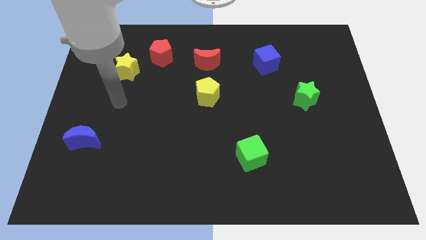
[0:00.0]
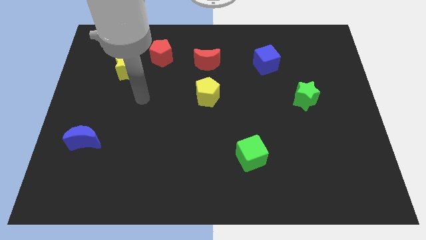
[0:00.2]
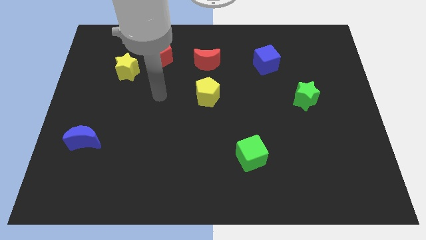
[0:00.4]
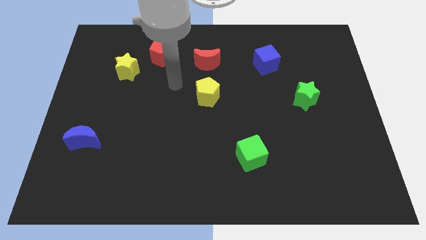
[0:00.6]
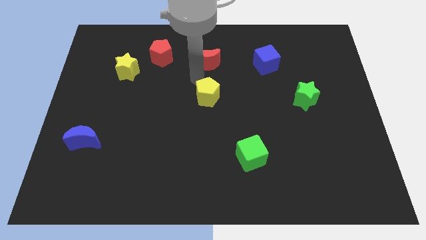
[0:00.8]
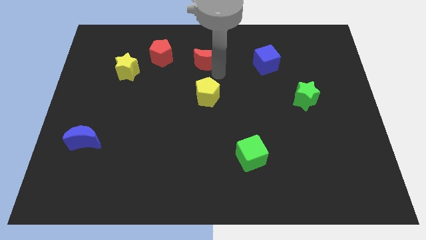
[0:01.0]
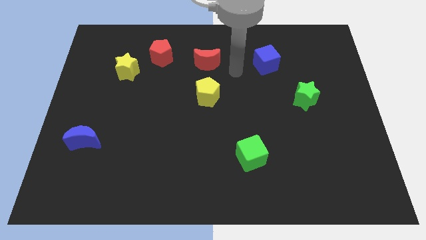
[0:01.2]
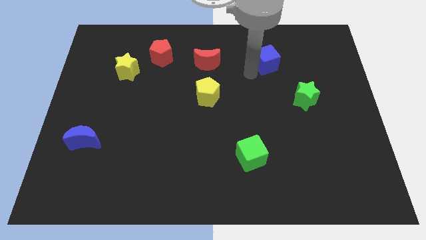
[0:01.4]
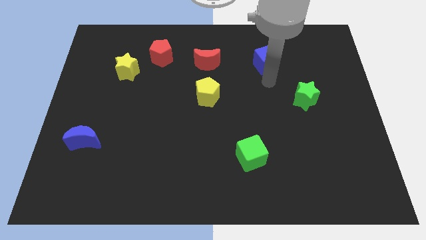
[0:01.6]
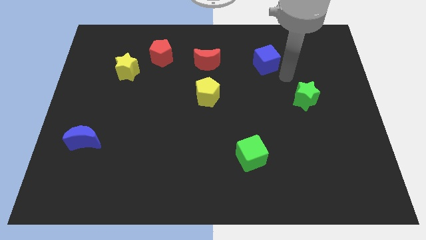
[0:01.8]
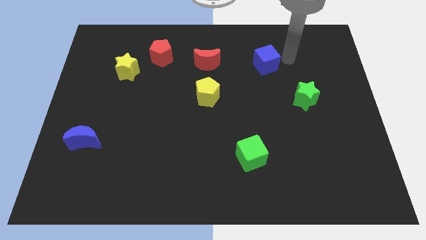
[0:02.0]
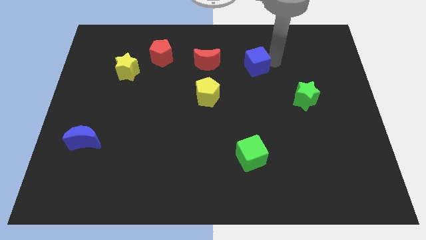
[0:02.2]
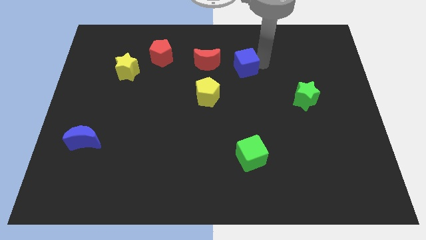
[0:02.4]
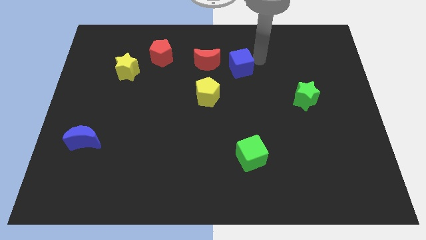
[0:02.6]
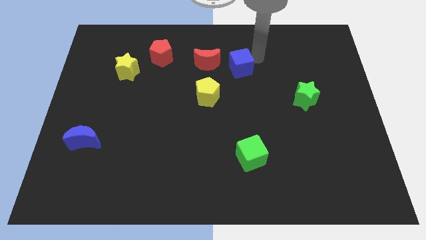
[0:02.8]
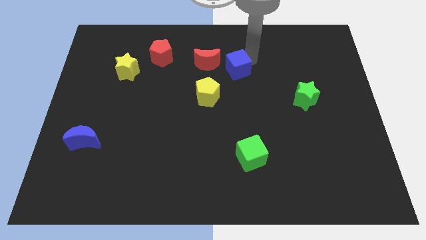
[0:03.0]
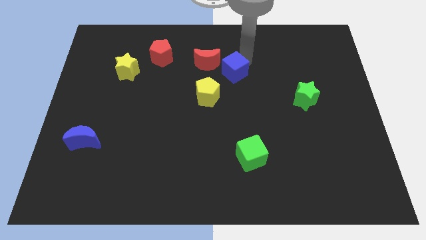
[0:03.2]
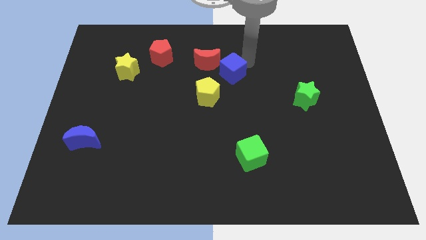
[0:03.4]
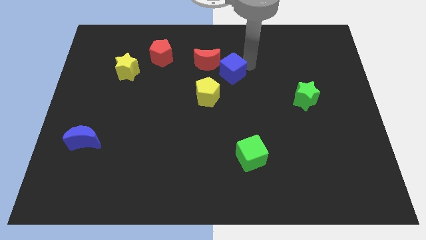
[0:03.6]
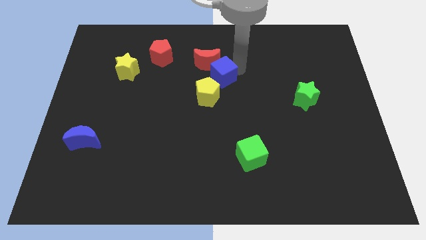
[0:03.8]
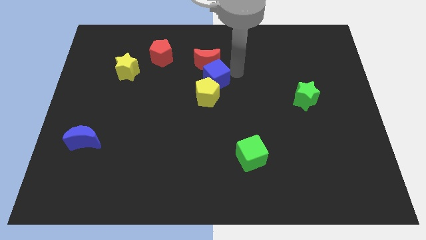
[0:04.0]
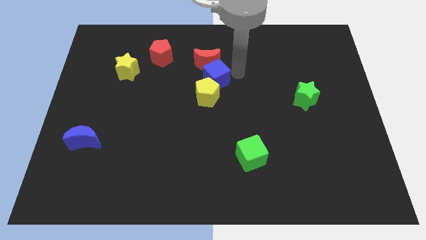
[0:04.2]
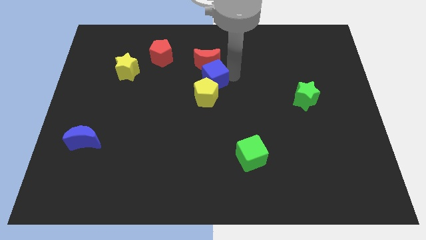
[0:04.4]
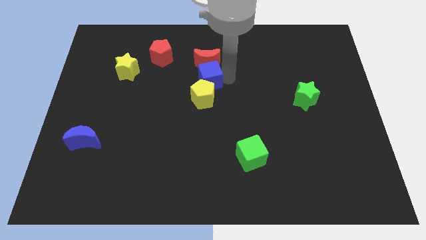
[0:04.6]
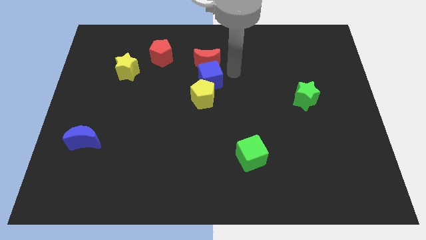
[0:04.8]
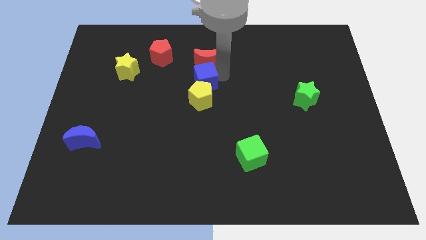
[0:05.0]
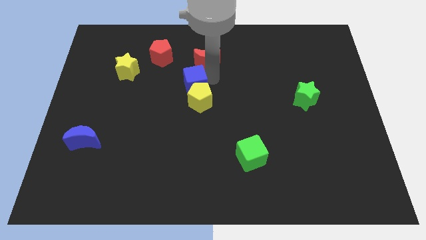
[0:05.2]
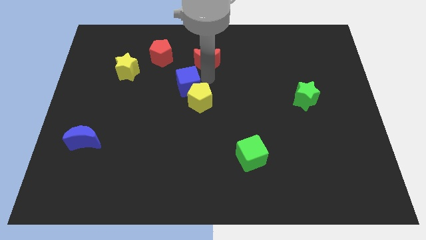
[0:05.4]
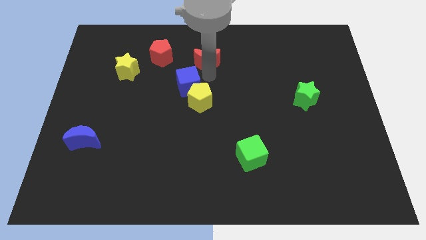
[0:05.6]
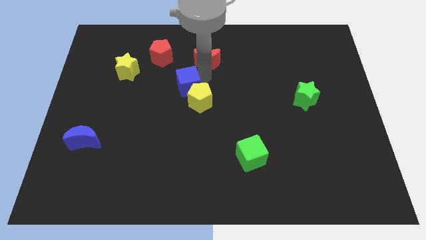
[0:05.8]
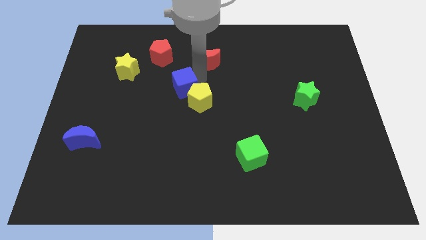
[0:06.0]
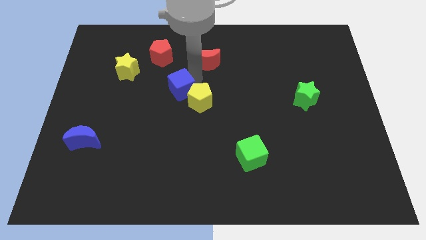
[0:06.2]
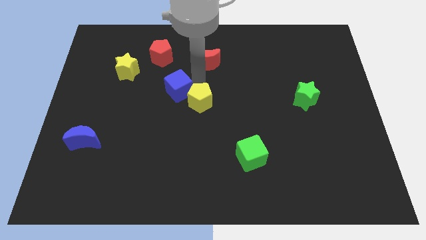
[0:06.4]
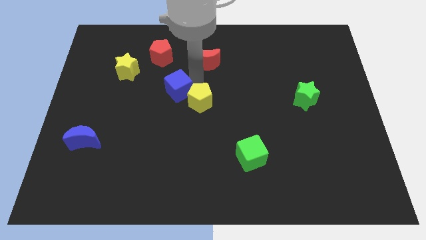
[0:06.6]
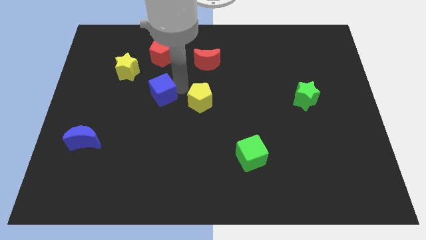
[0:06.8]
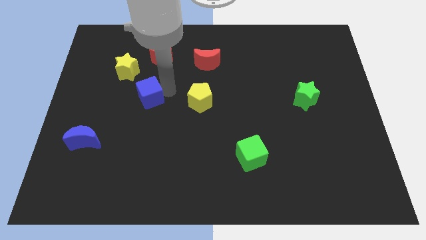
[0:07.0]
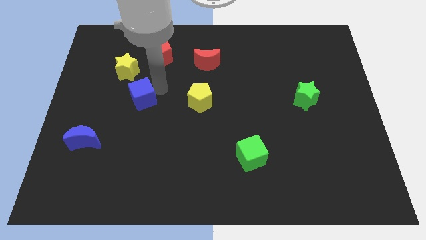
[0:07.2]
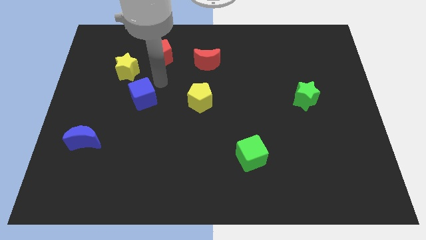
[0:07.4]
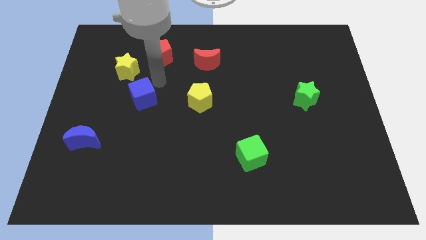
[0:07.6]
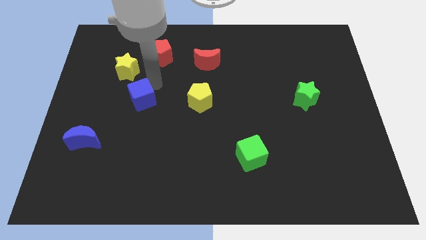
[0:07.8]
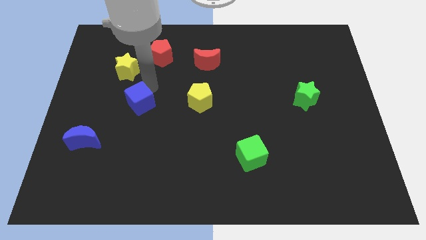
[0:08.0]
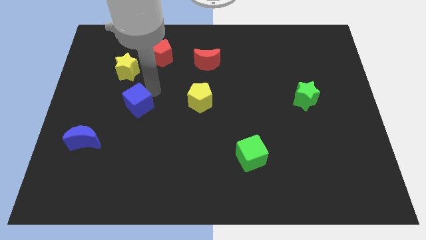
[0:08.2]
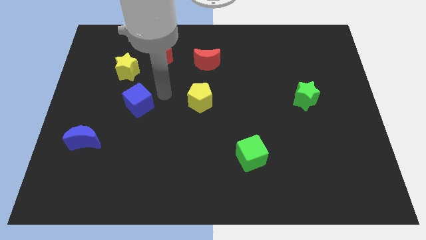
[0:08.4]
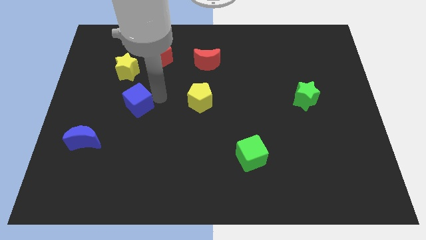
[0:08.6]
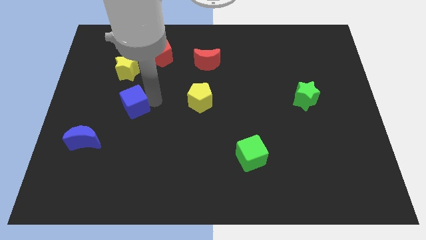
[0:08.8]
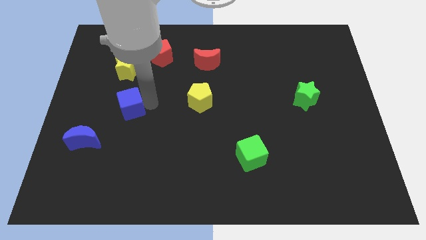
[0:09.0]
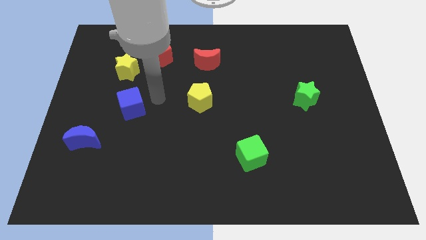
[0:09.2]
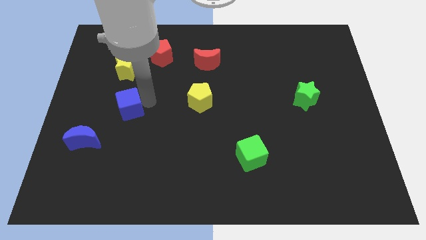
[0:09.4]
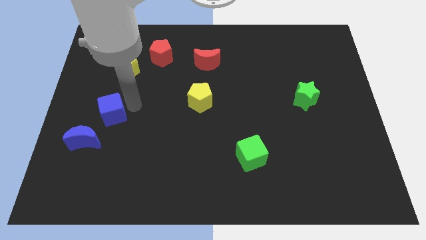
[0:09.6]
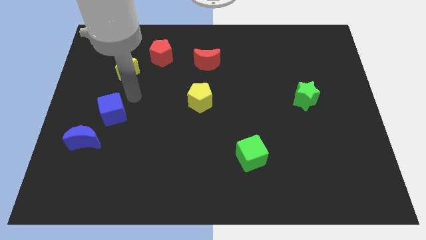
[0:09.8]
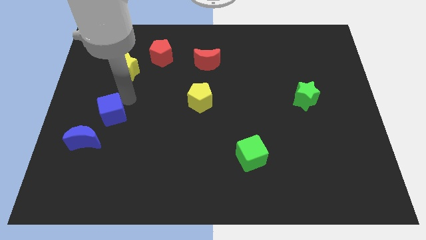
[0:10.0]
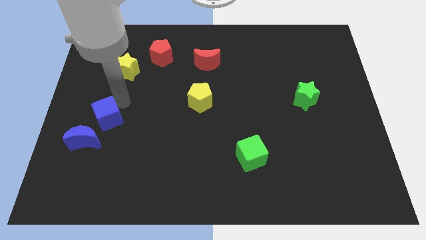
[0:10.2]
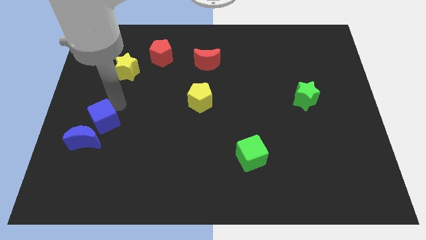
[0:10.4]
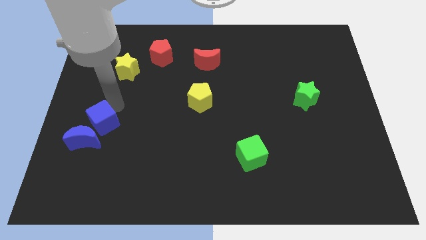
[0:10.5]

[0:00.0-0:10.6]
put the blue cube towards the blue moon

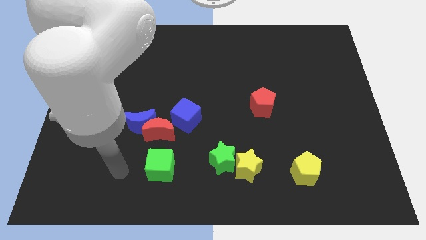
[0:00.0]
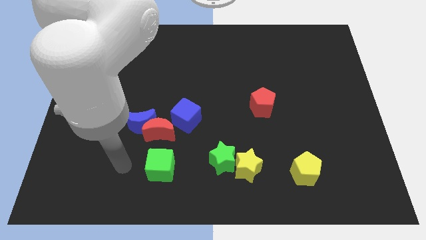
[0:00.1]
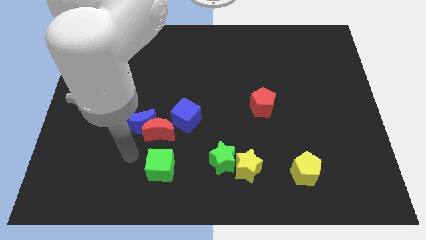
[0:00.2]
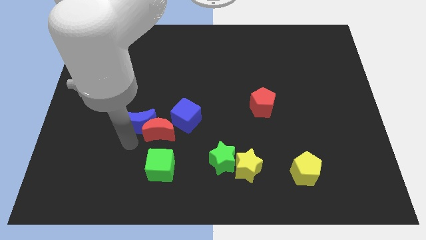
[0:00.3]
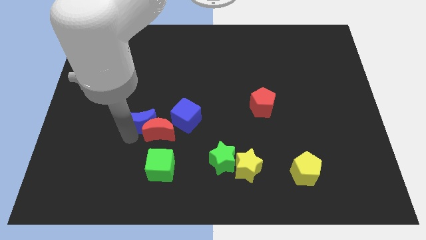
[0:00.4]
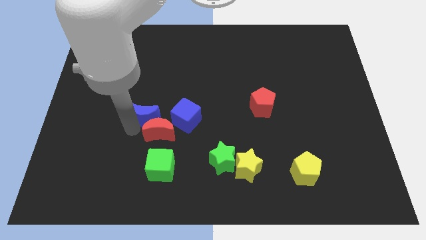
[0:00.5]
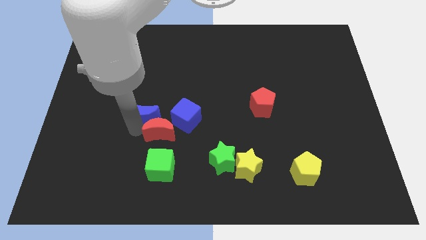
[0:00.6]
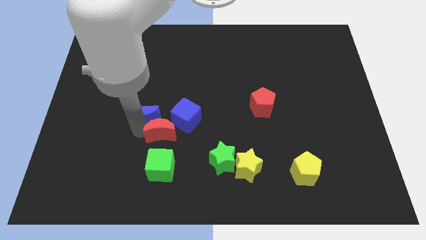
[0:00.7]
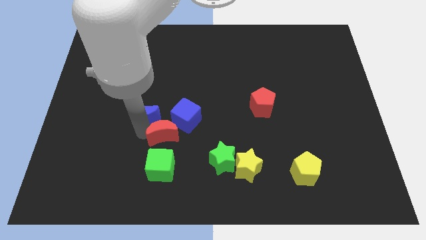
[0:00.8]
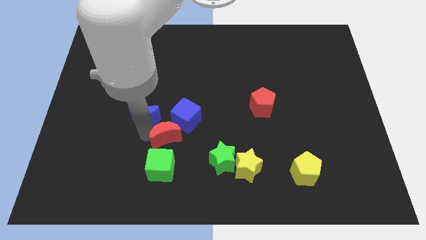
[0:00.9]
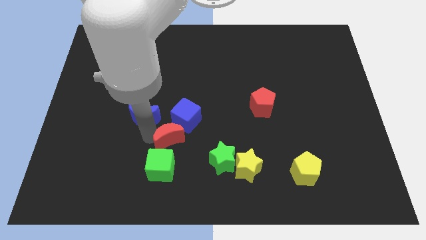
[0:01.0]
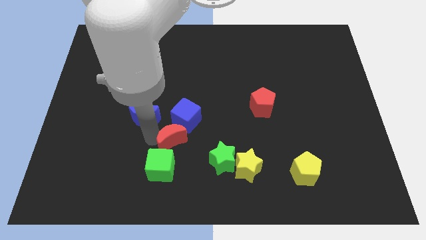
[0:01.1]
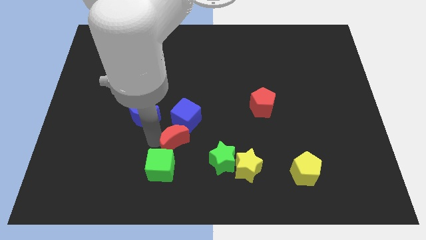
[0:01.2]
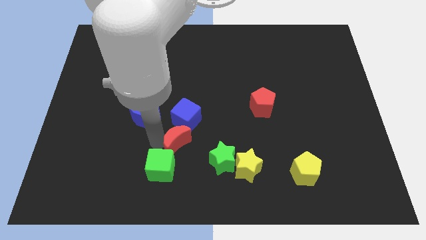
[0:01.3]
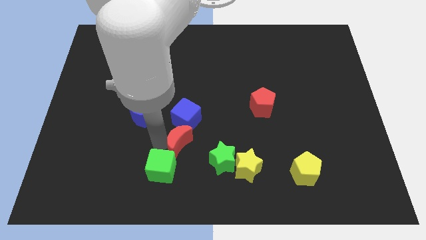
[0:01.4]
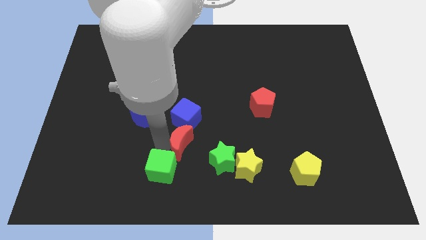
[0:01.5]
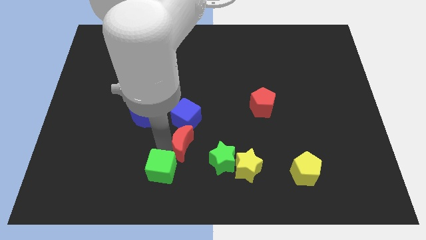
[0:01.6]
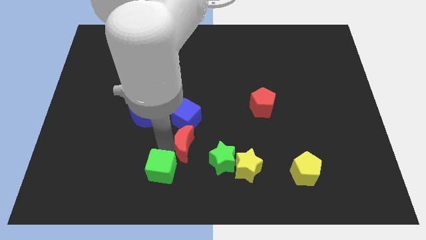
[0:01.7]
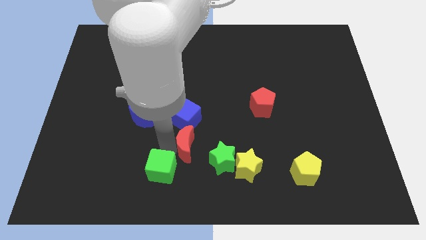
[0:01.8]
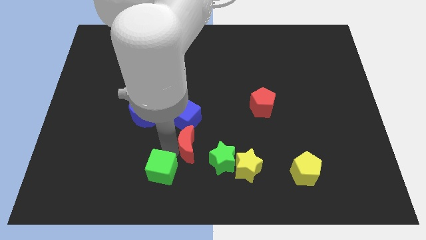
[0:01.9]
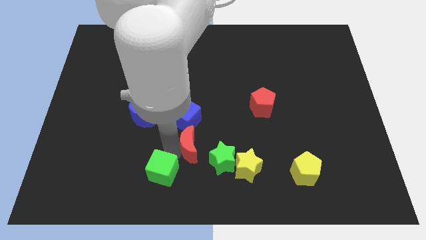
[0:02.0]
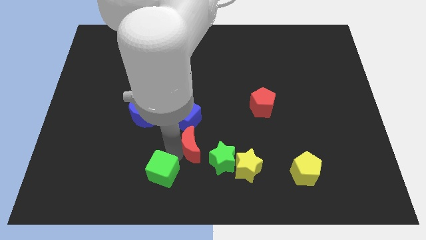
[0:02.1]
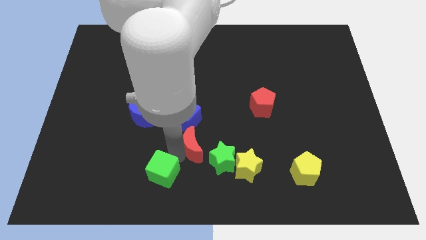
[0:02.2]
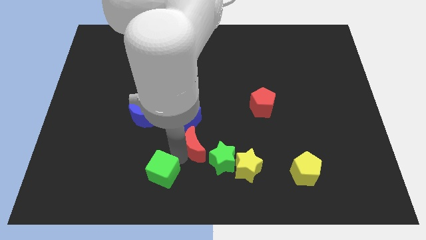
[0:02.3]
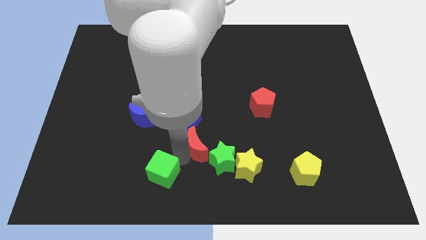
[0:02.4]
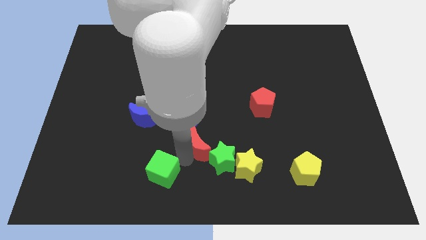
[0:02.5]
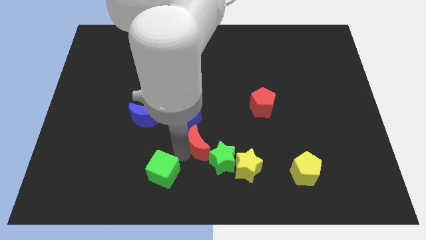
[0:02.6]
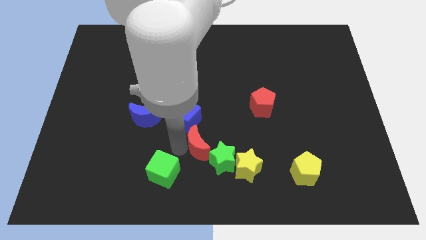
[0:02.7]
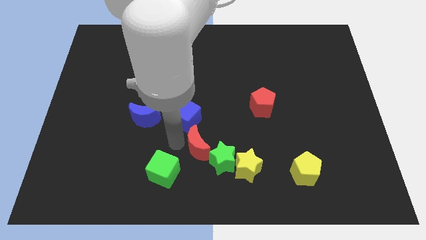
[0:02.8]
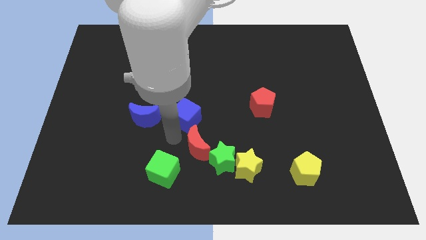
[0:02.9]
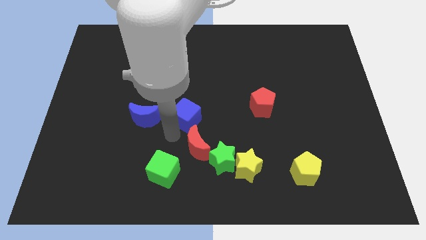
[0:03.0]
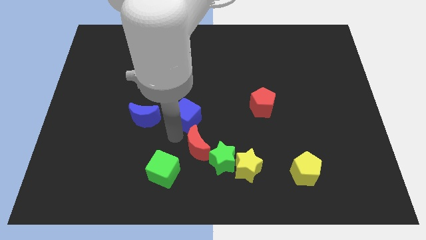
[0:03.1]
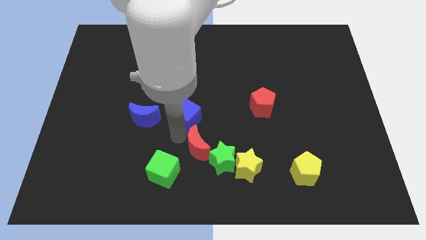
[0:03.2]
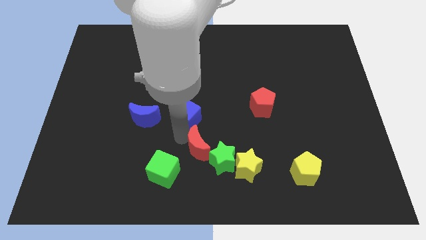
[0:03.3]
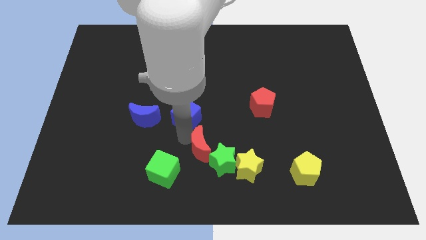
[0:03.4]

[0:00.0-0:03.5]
push the red moon towards the green star
